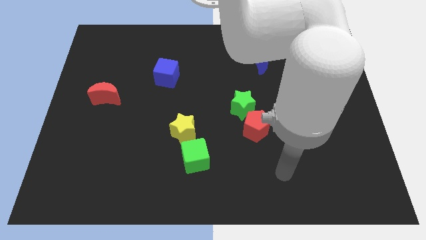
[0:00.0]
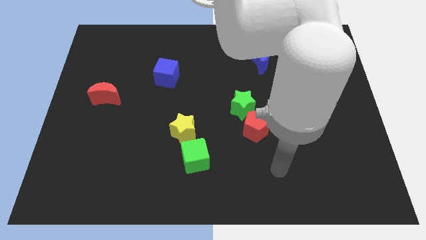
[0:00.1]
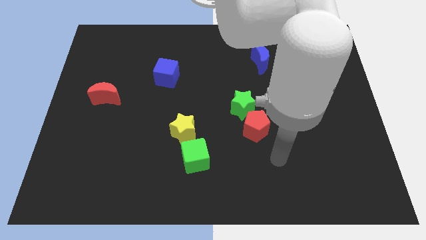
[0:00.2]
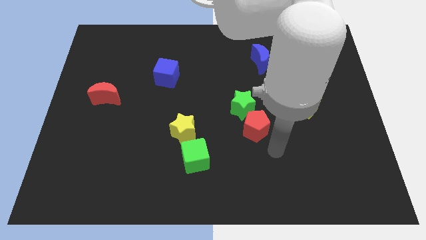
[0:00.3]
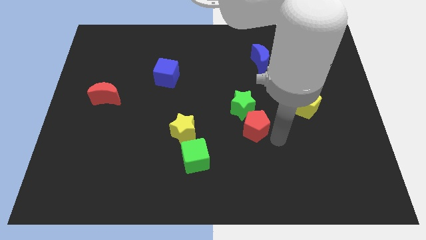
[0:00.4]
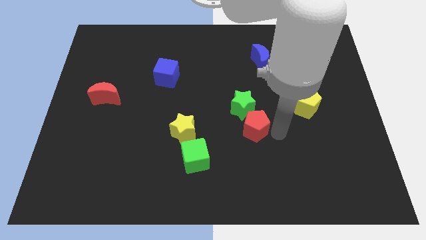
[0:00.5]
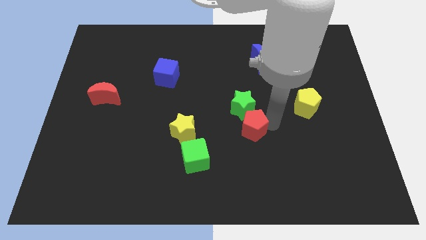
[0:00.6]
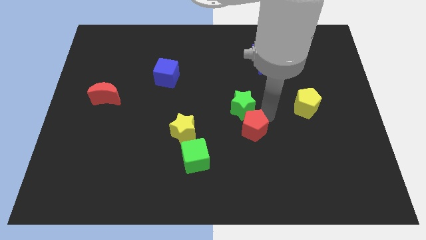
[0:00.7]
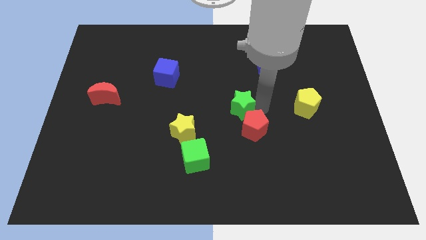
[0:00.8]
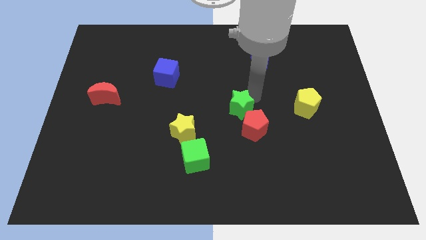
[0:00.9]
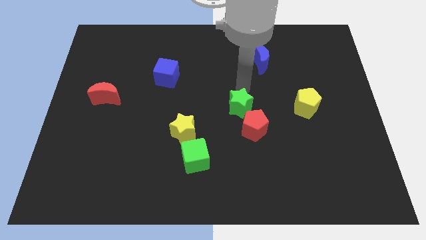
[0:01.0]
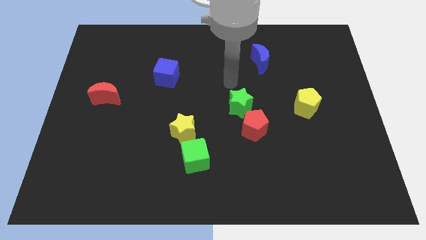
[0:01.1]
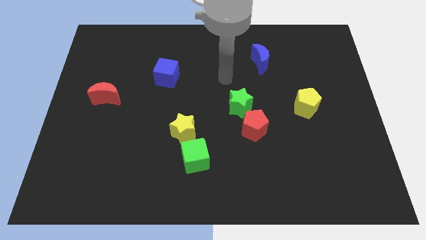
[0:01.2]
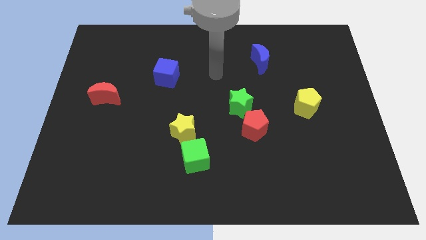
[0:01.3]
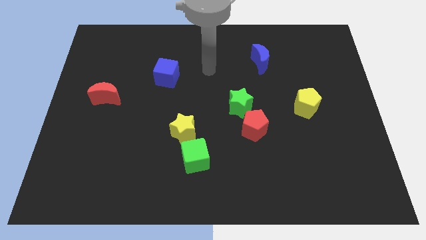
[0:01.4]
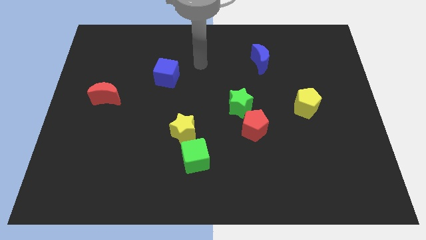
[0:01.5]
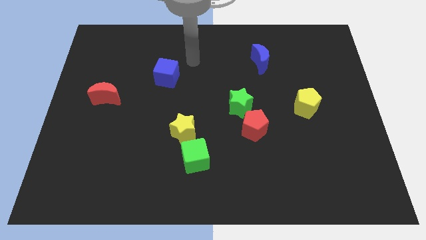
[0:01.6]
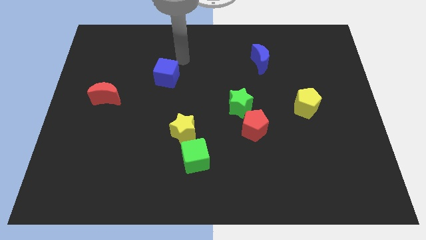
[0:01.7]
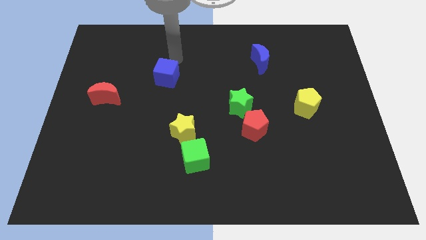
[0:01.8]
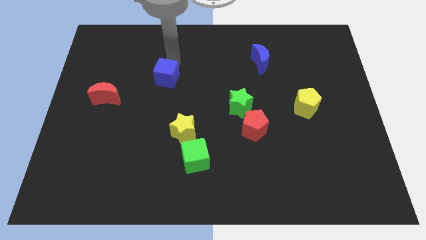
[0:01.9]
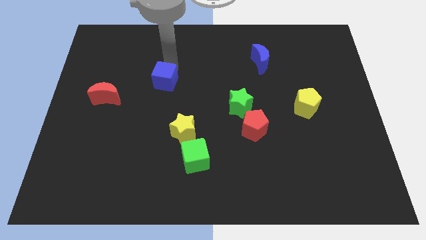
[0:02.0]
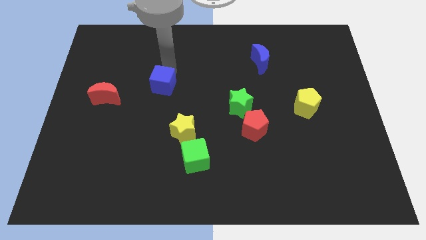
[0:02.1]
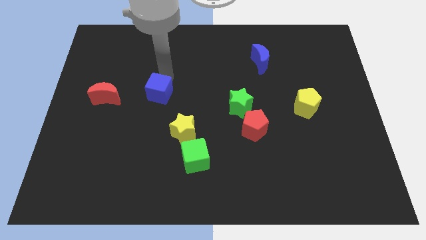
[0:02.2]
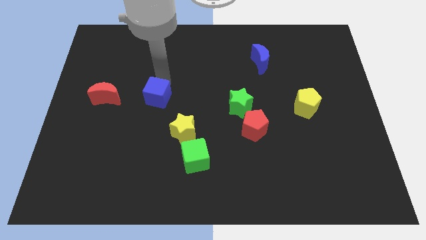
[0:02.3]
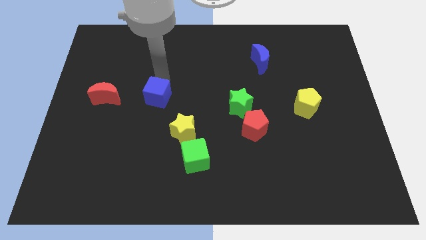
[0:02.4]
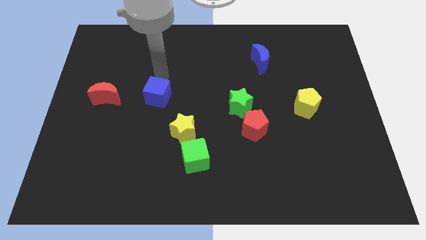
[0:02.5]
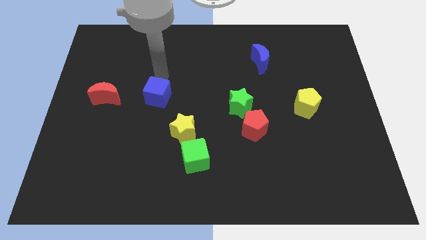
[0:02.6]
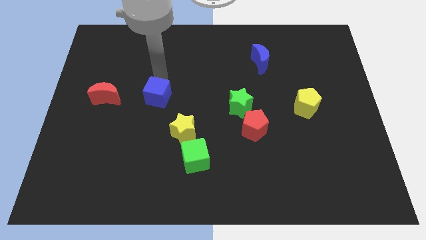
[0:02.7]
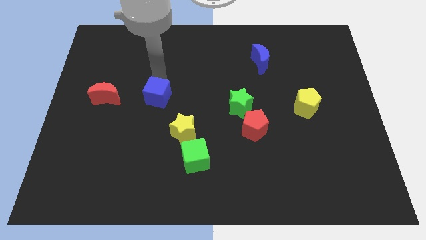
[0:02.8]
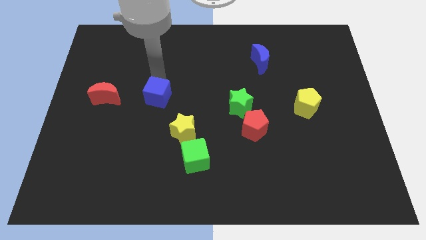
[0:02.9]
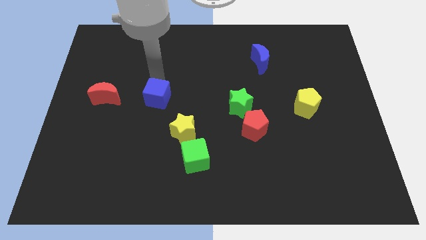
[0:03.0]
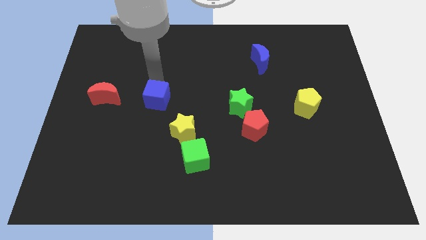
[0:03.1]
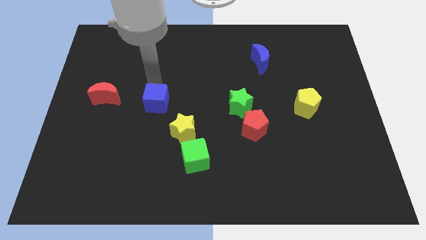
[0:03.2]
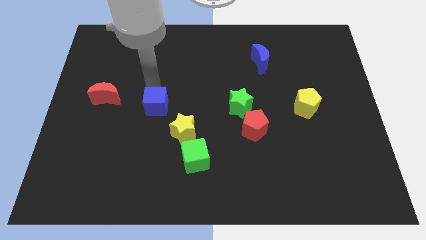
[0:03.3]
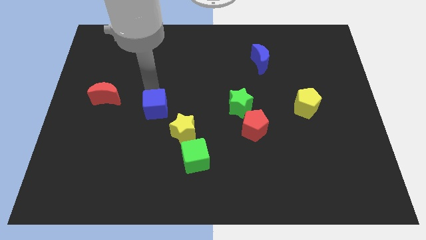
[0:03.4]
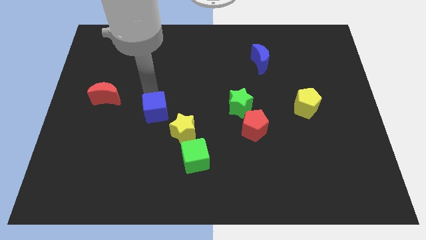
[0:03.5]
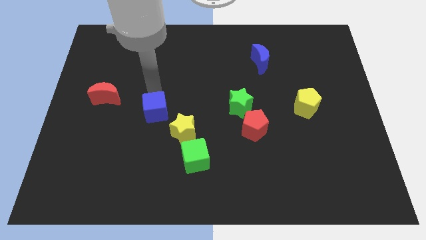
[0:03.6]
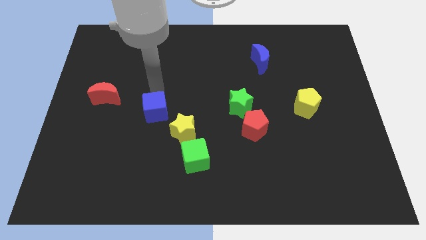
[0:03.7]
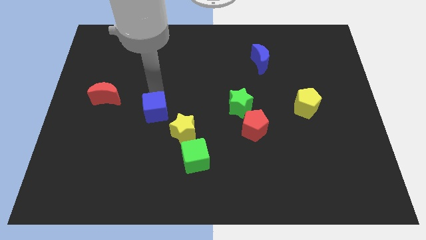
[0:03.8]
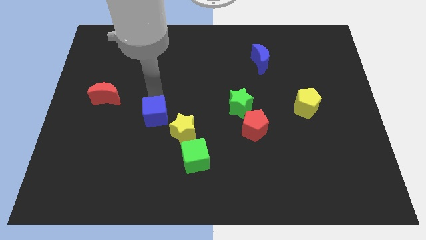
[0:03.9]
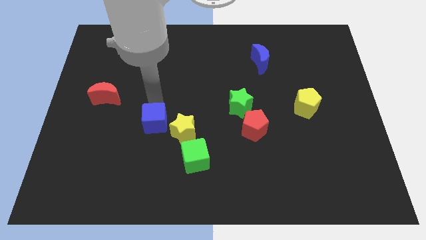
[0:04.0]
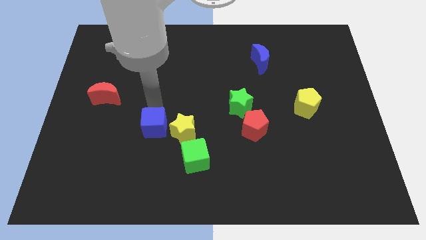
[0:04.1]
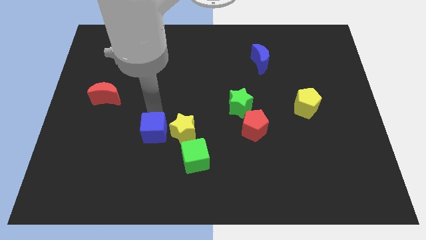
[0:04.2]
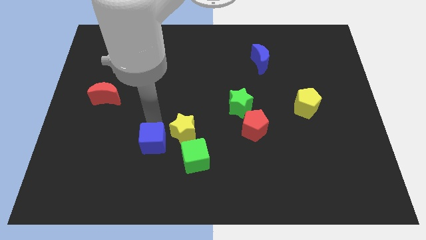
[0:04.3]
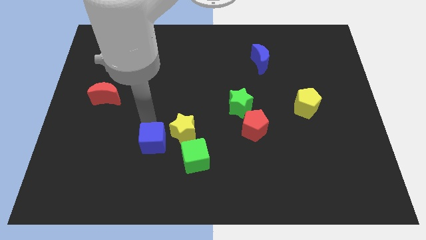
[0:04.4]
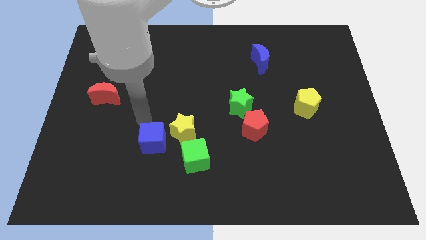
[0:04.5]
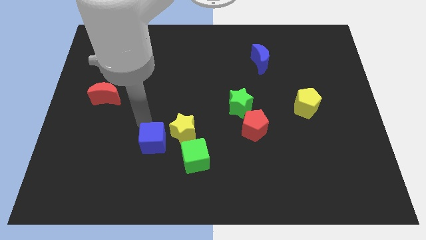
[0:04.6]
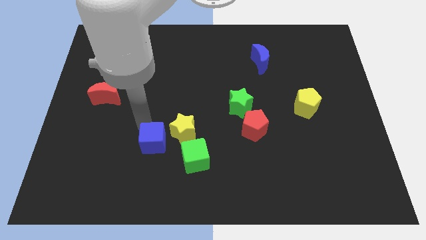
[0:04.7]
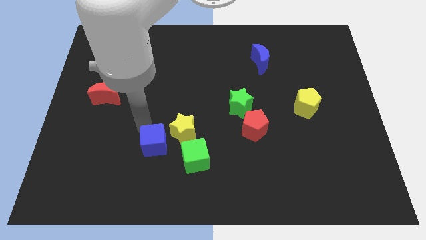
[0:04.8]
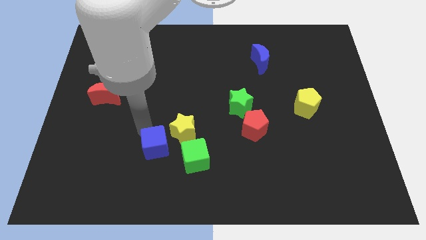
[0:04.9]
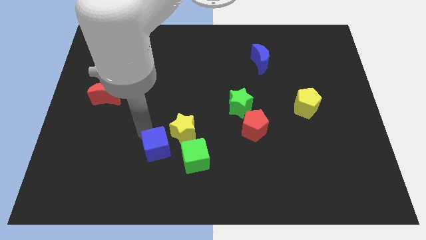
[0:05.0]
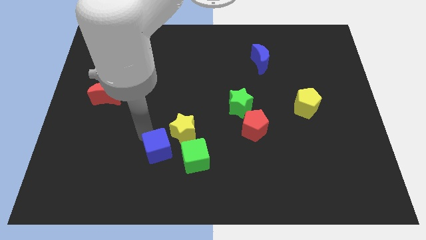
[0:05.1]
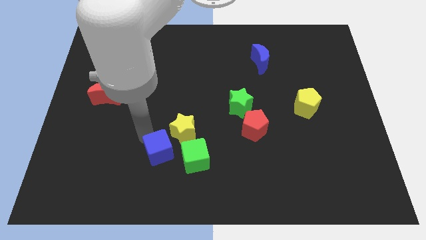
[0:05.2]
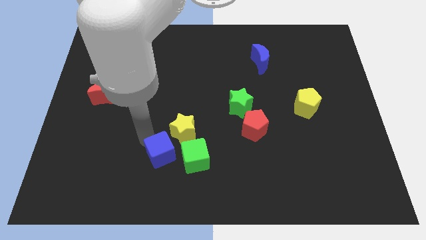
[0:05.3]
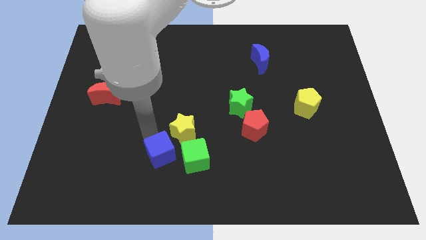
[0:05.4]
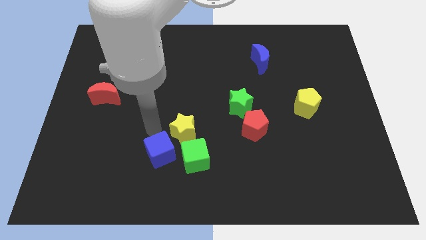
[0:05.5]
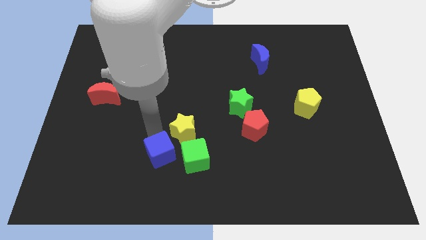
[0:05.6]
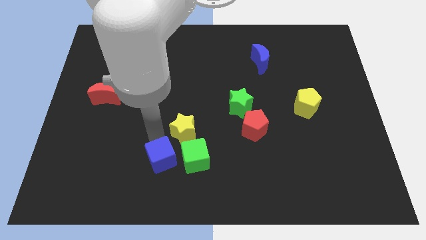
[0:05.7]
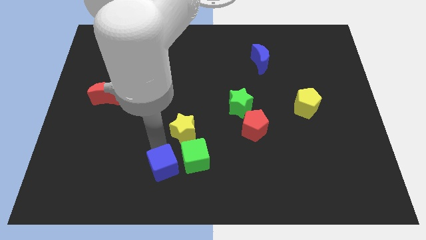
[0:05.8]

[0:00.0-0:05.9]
put the blue cube diagonally down and to the left of the green cube
